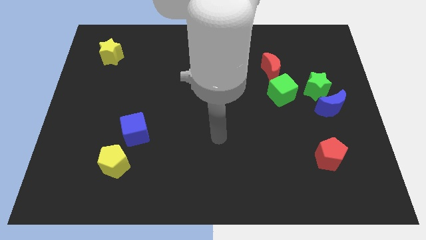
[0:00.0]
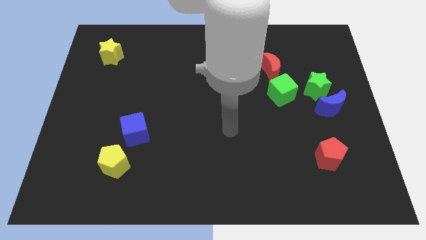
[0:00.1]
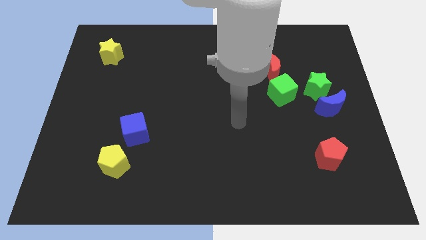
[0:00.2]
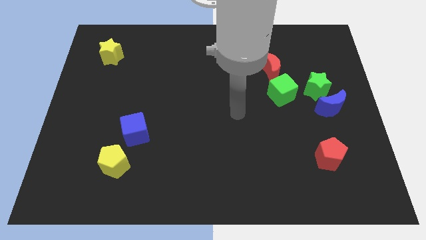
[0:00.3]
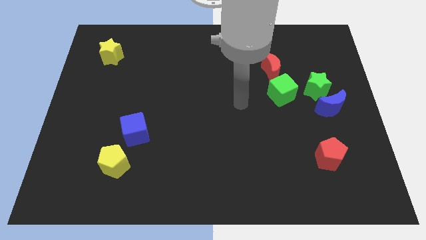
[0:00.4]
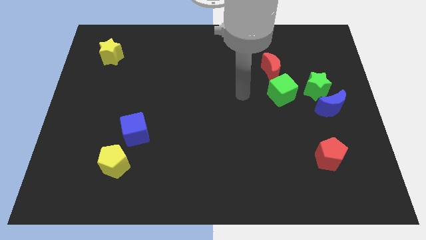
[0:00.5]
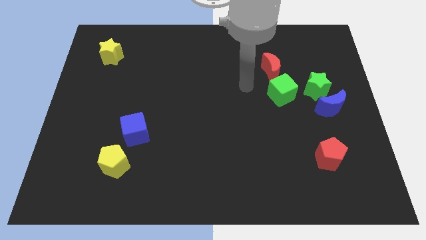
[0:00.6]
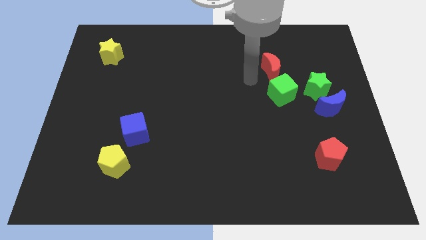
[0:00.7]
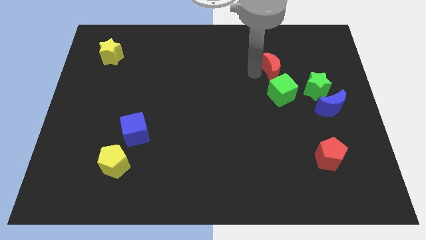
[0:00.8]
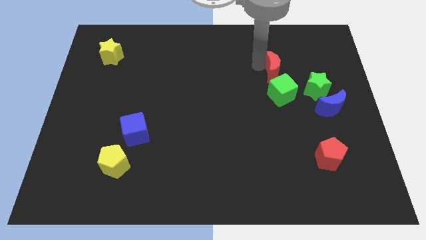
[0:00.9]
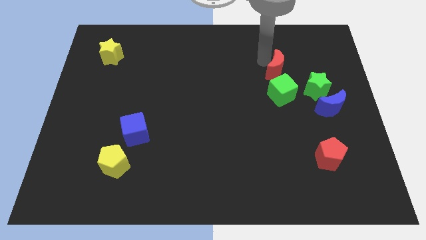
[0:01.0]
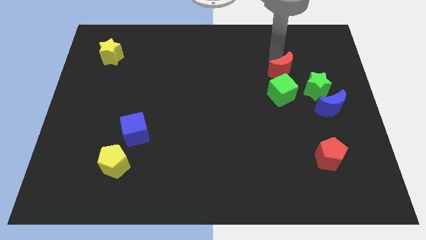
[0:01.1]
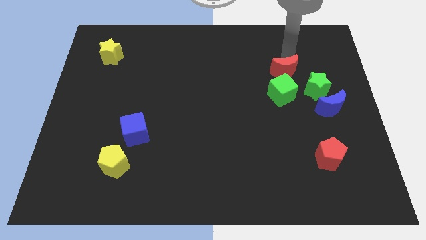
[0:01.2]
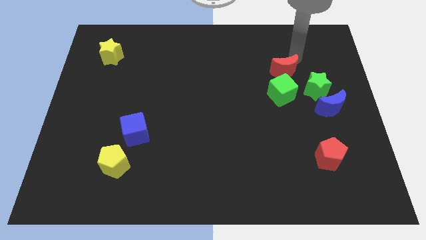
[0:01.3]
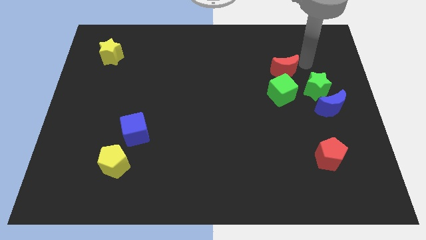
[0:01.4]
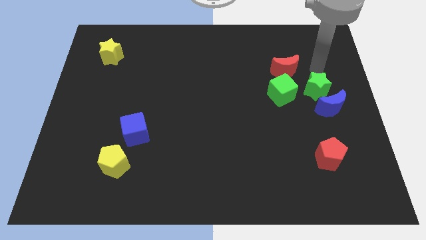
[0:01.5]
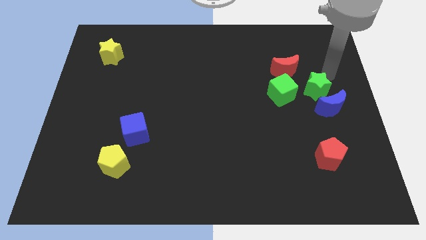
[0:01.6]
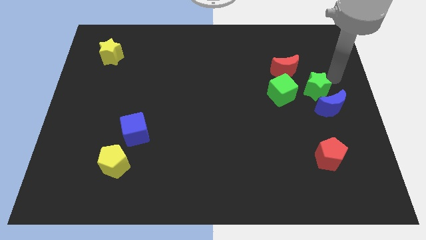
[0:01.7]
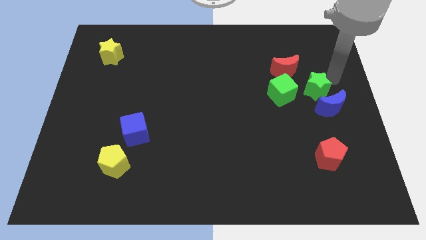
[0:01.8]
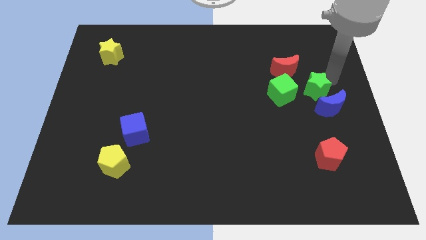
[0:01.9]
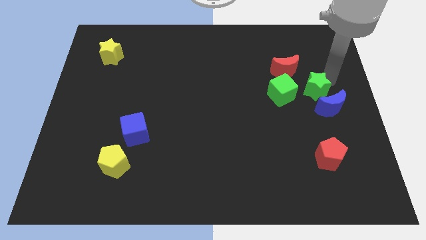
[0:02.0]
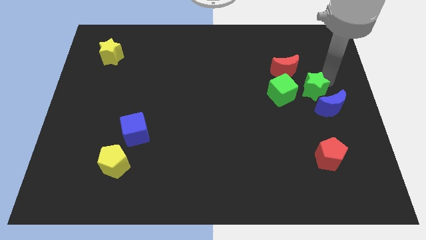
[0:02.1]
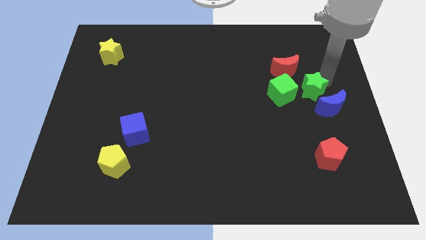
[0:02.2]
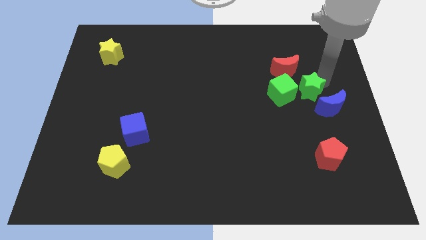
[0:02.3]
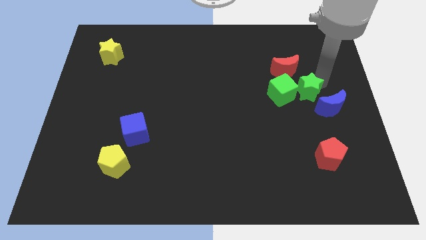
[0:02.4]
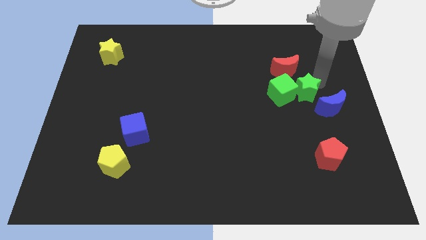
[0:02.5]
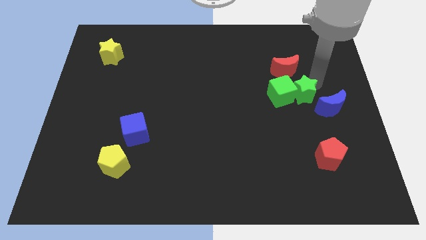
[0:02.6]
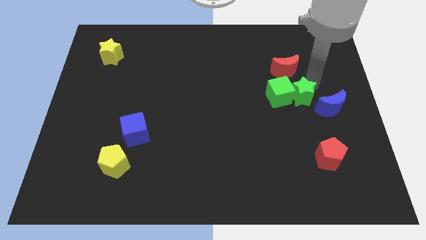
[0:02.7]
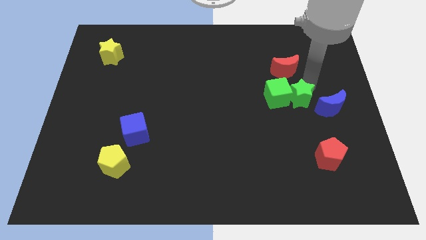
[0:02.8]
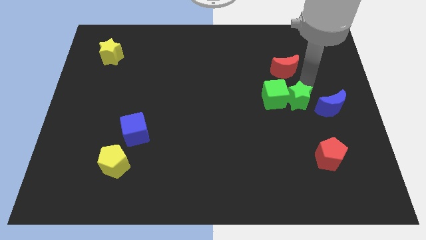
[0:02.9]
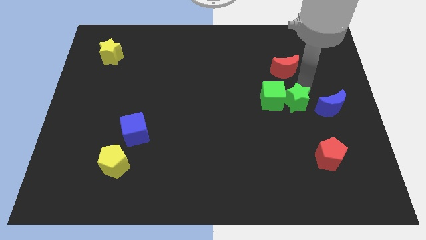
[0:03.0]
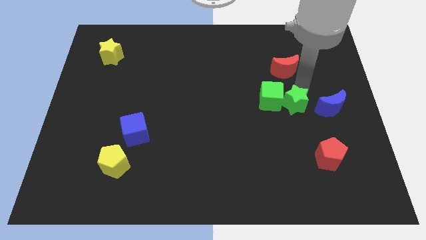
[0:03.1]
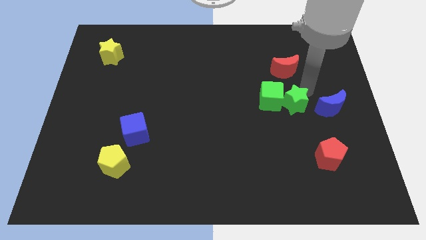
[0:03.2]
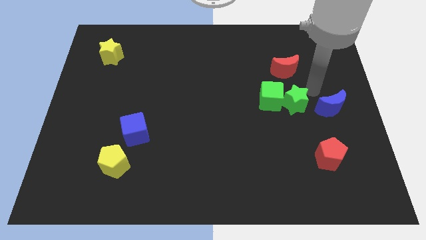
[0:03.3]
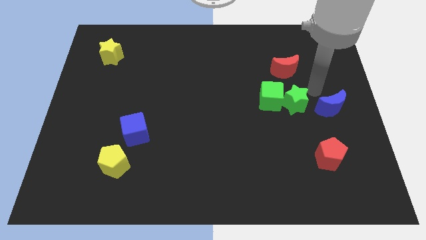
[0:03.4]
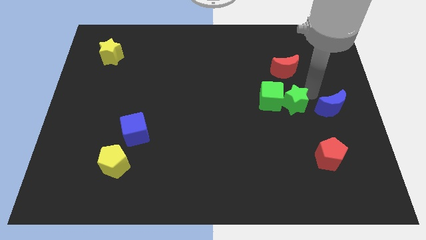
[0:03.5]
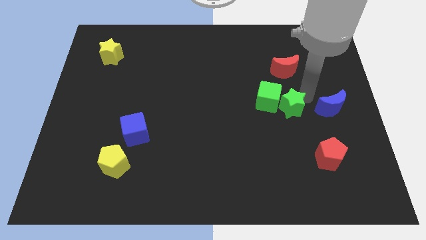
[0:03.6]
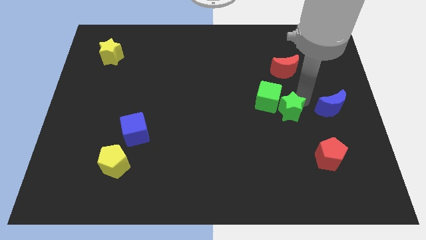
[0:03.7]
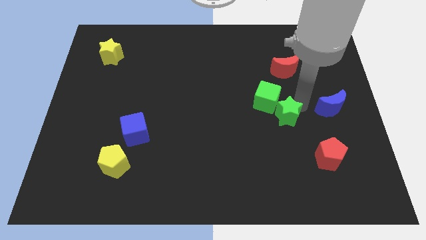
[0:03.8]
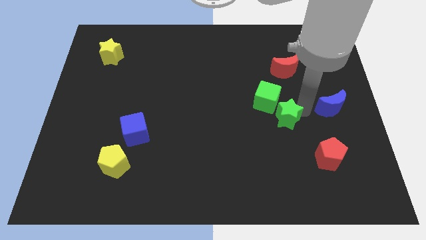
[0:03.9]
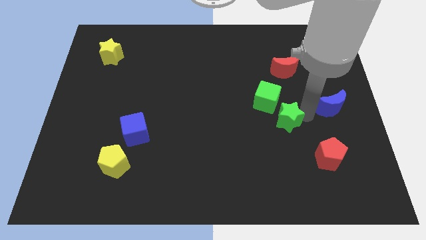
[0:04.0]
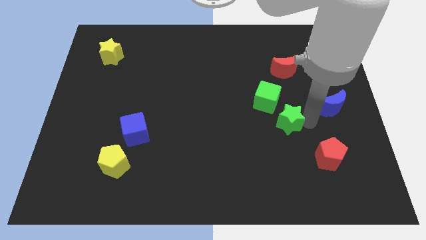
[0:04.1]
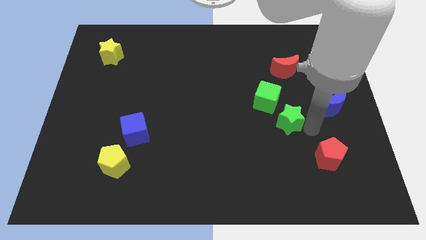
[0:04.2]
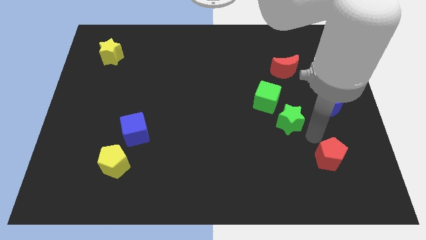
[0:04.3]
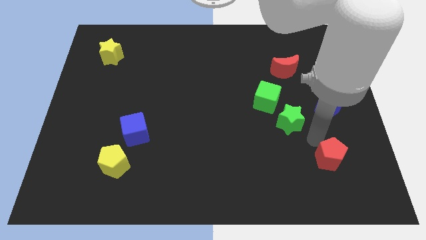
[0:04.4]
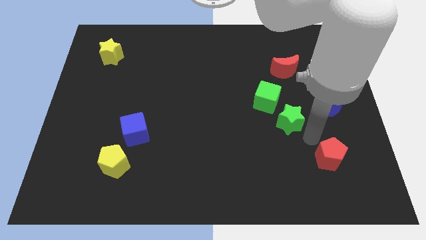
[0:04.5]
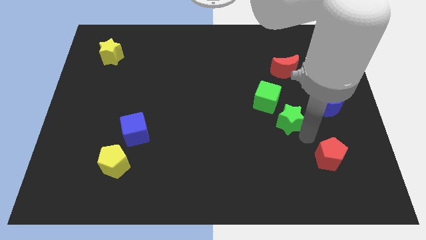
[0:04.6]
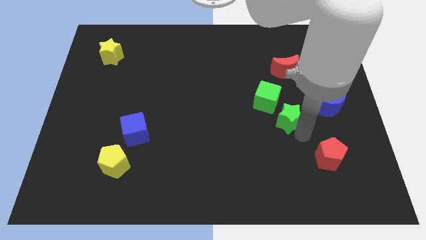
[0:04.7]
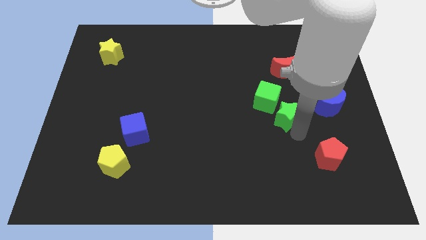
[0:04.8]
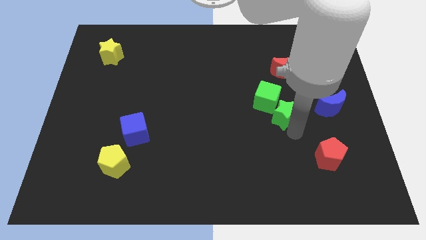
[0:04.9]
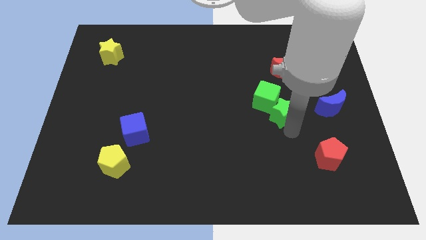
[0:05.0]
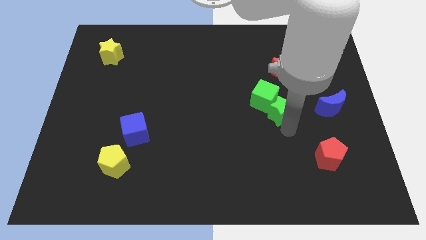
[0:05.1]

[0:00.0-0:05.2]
slightly move the green star left

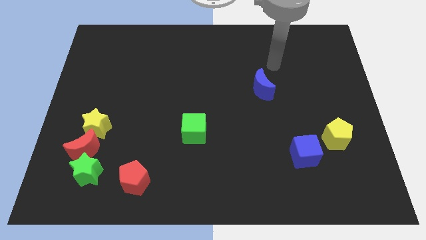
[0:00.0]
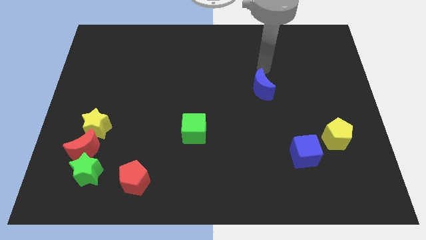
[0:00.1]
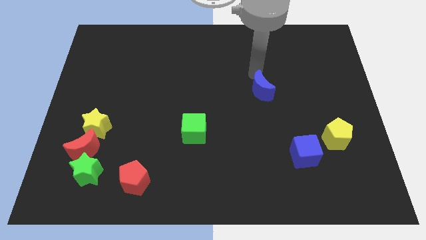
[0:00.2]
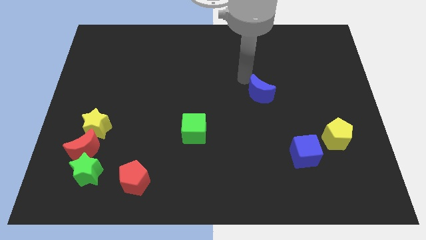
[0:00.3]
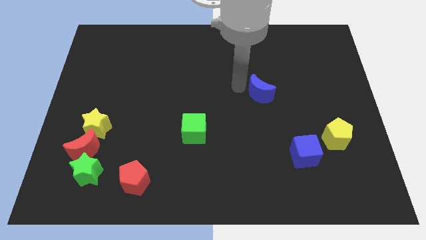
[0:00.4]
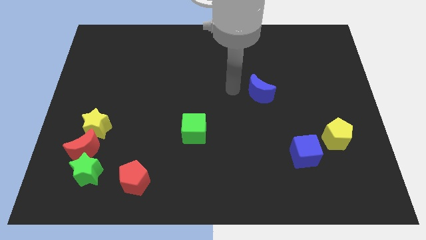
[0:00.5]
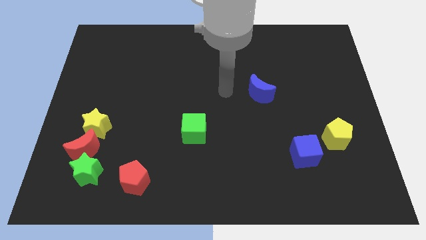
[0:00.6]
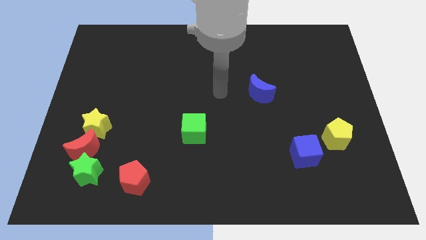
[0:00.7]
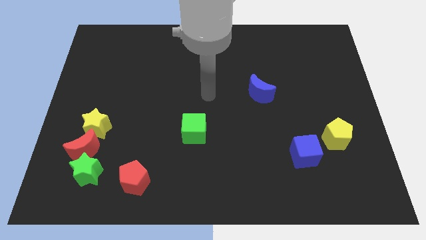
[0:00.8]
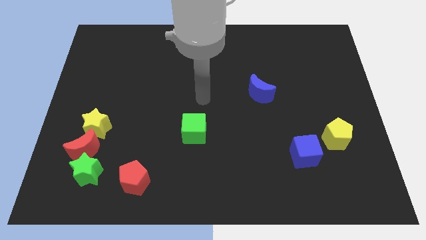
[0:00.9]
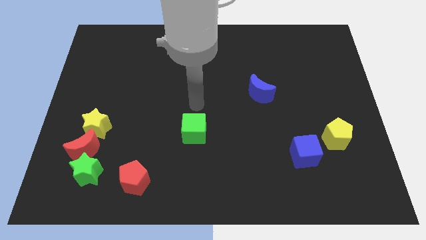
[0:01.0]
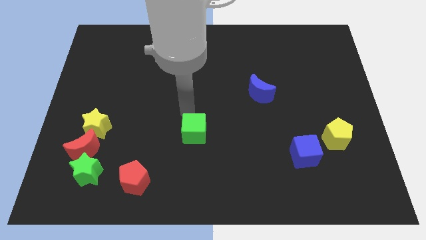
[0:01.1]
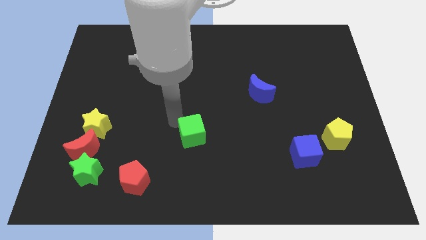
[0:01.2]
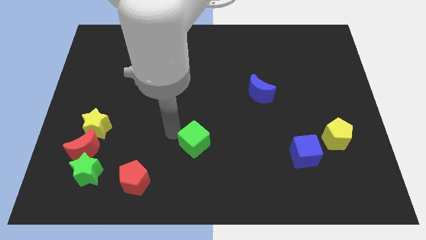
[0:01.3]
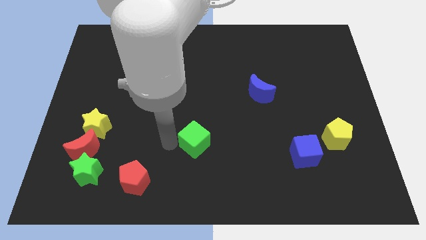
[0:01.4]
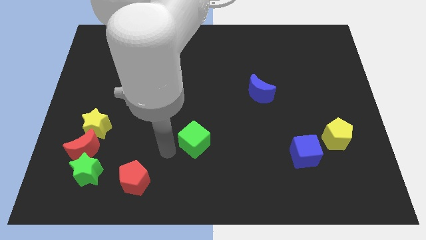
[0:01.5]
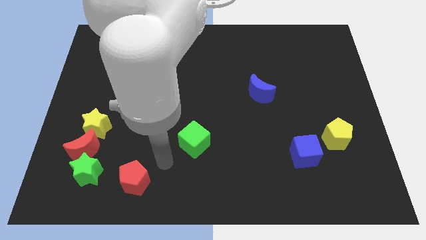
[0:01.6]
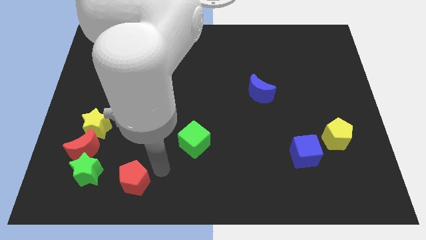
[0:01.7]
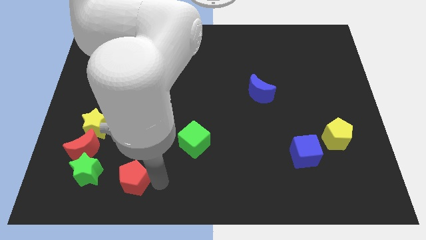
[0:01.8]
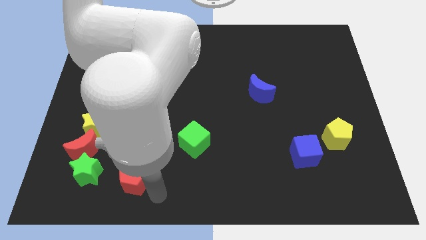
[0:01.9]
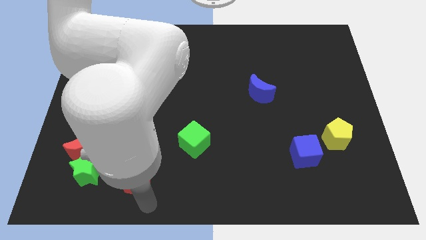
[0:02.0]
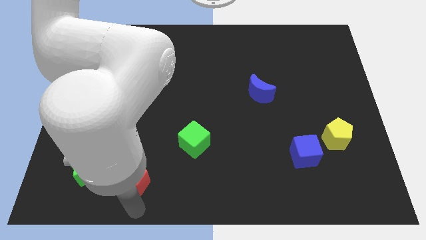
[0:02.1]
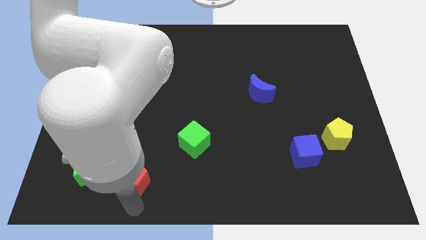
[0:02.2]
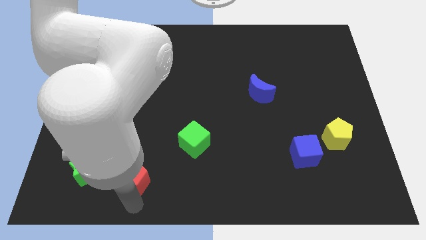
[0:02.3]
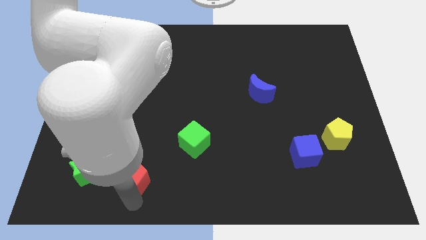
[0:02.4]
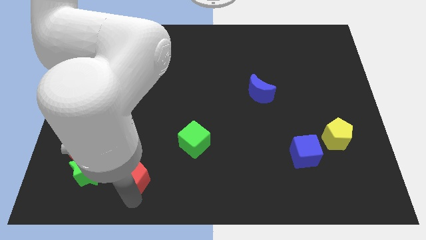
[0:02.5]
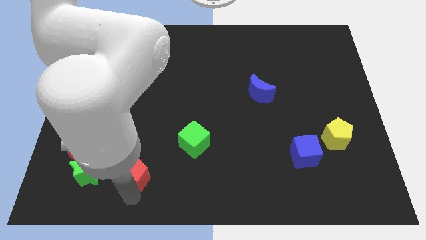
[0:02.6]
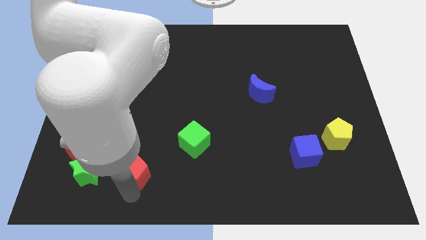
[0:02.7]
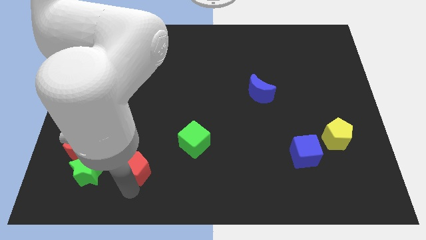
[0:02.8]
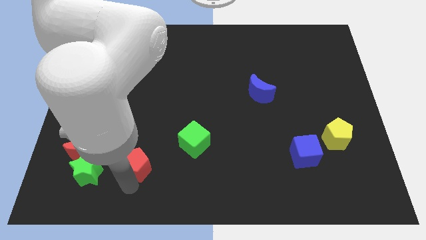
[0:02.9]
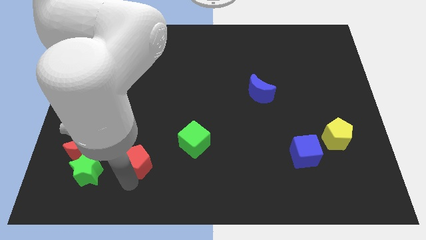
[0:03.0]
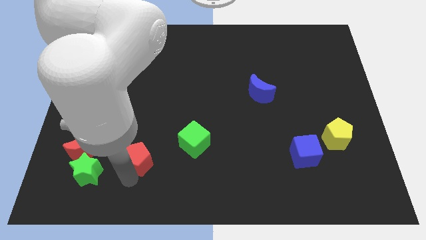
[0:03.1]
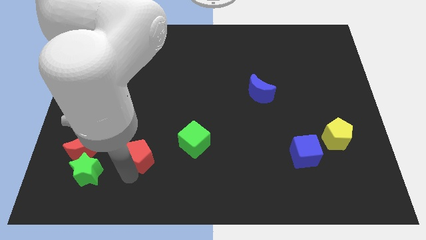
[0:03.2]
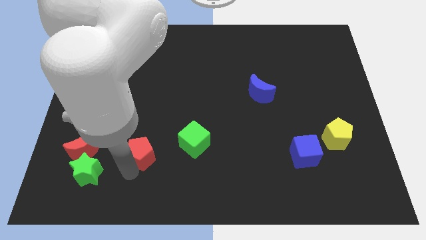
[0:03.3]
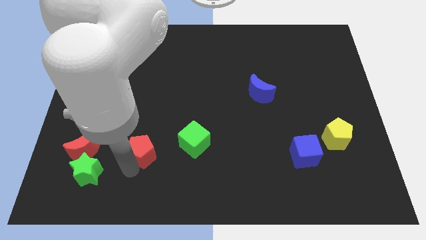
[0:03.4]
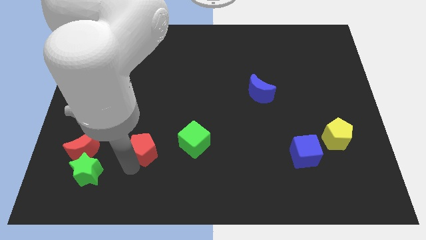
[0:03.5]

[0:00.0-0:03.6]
move the red pentagon upwards a little bit
